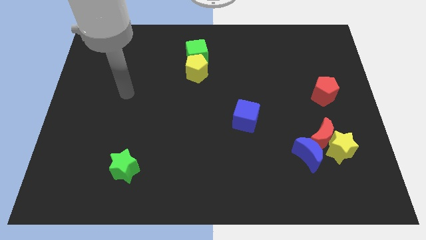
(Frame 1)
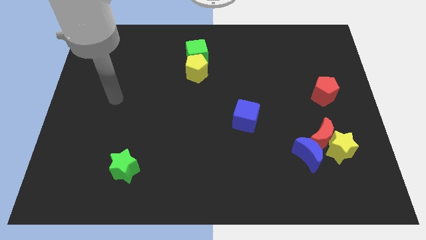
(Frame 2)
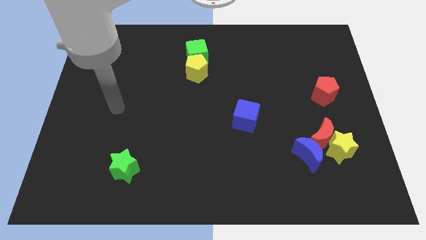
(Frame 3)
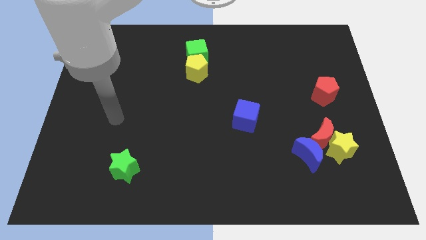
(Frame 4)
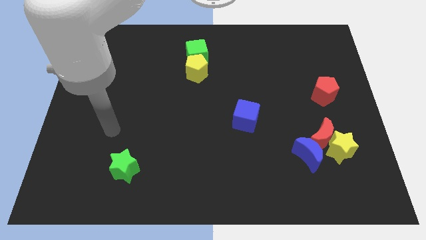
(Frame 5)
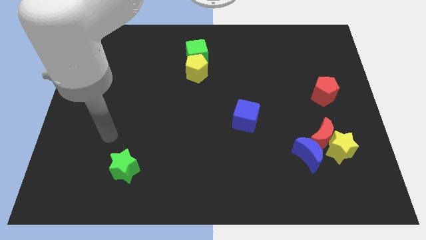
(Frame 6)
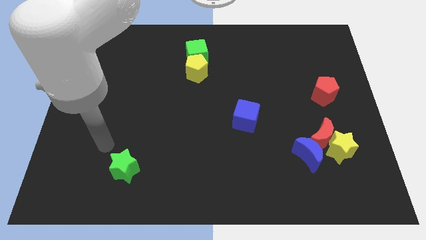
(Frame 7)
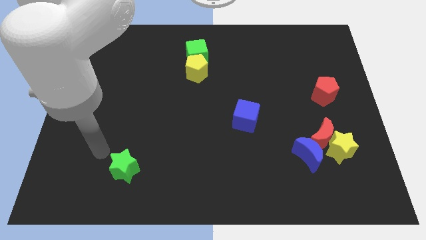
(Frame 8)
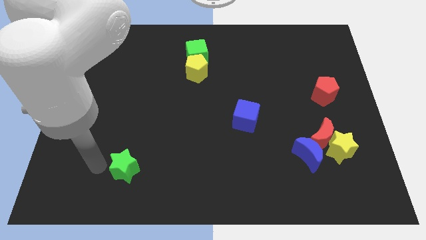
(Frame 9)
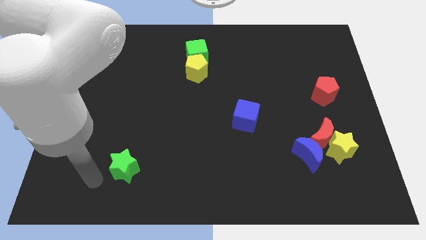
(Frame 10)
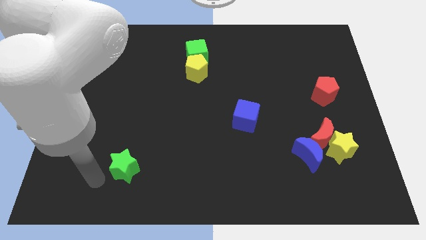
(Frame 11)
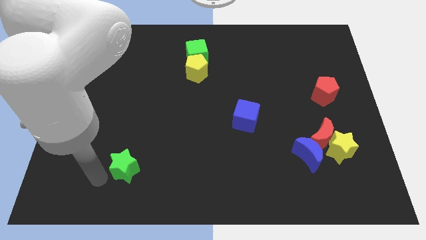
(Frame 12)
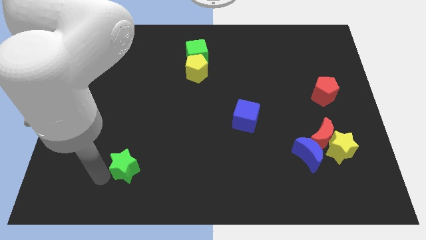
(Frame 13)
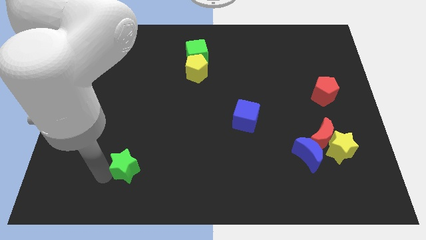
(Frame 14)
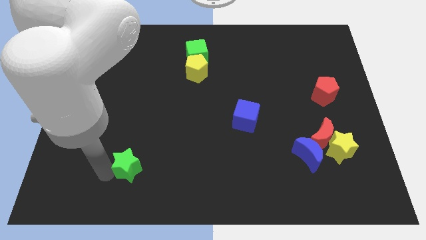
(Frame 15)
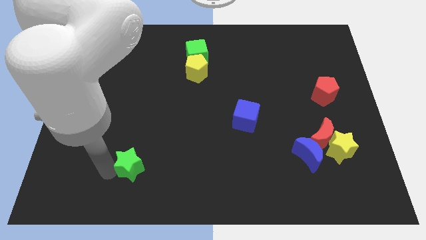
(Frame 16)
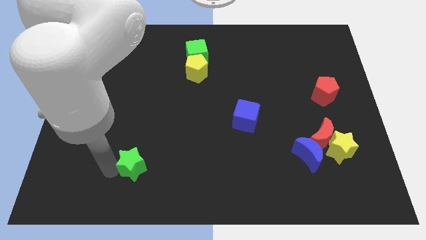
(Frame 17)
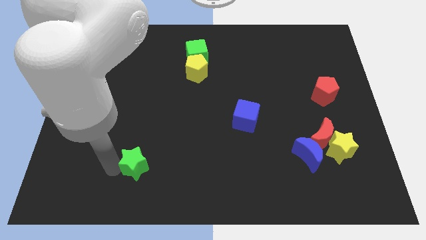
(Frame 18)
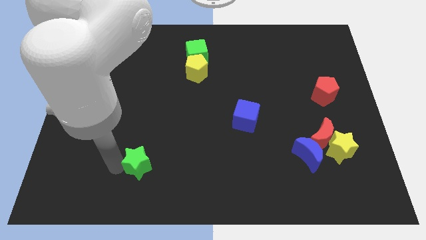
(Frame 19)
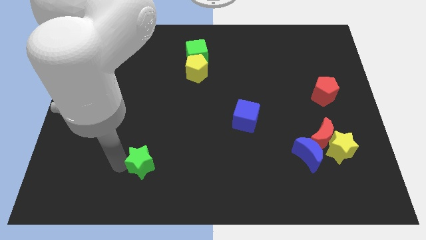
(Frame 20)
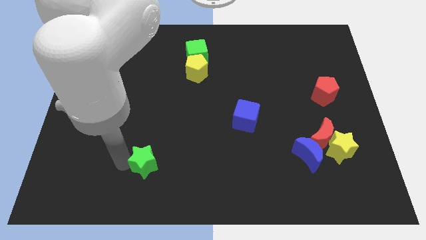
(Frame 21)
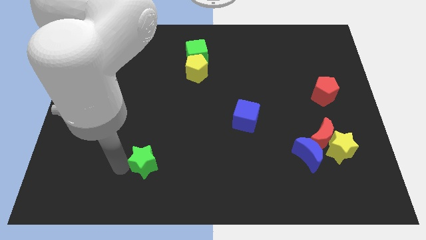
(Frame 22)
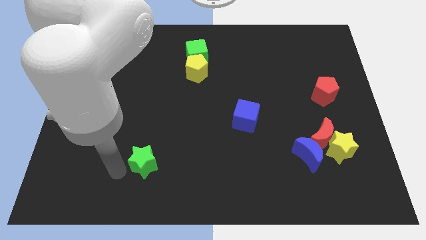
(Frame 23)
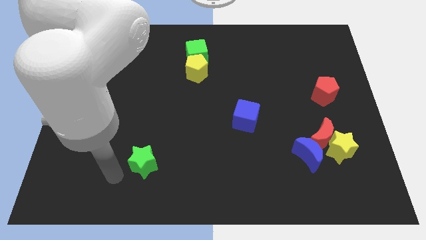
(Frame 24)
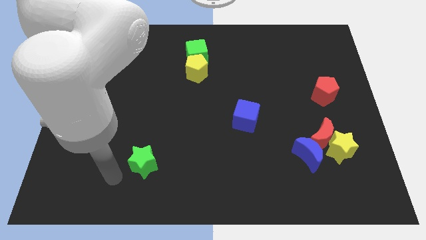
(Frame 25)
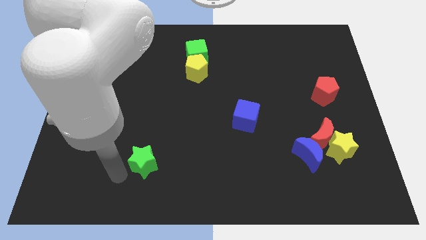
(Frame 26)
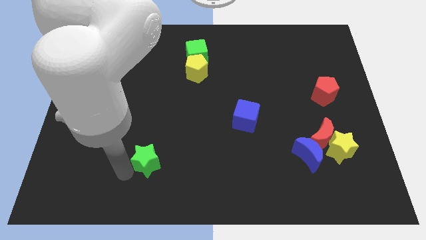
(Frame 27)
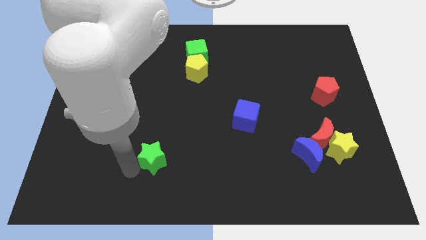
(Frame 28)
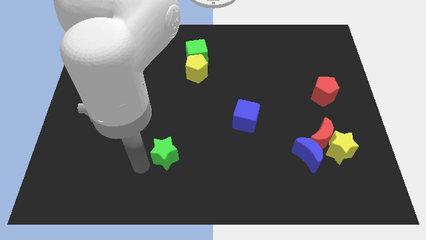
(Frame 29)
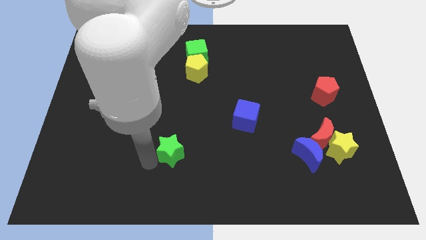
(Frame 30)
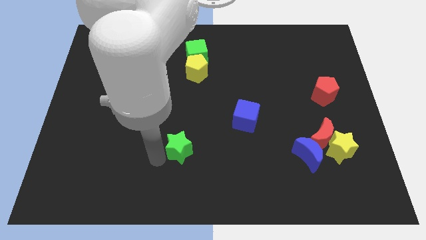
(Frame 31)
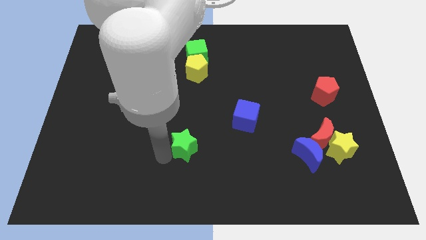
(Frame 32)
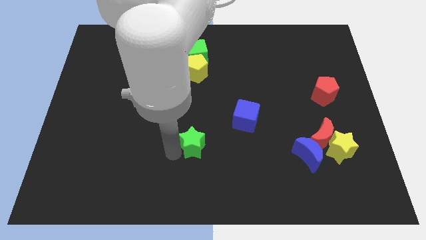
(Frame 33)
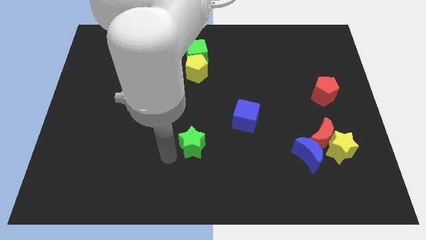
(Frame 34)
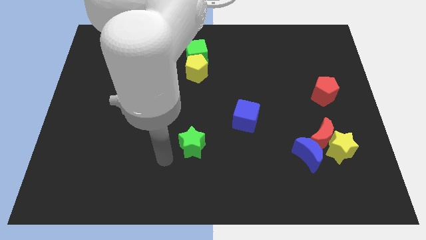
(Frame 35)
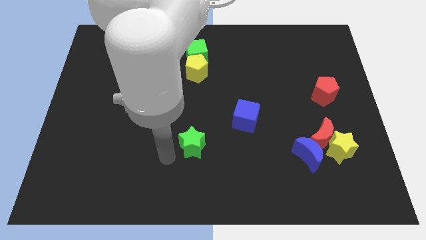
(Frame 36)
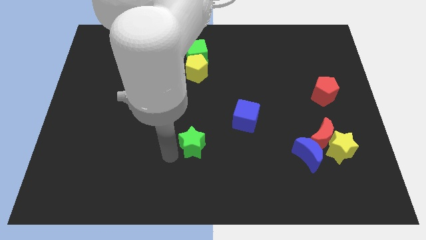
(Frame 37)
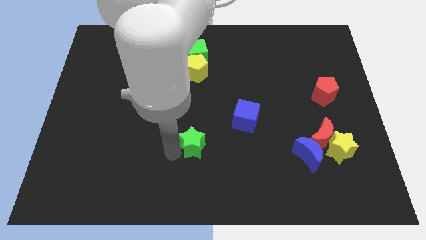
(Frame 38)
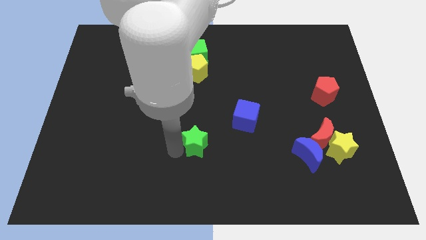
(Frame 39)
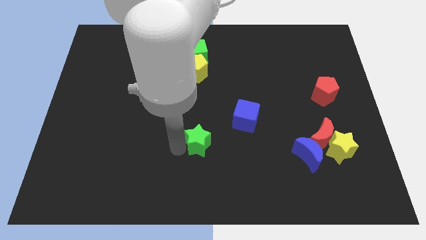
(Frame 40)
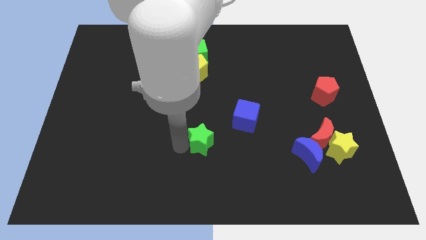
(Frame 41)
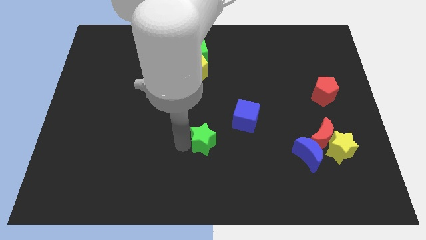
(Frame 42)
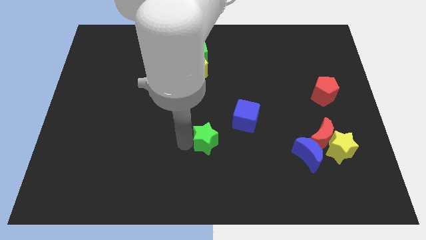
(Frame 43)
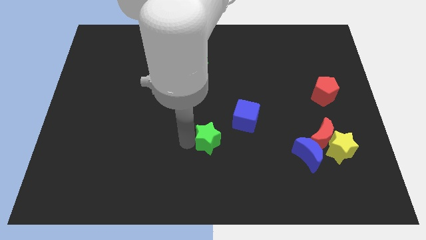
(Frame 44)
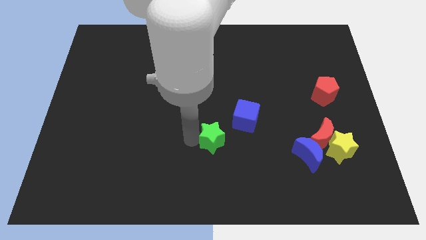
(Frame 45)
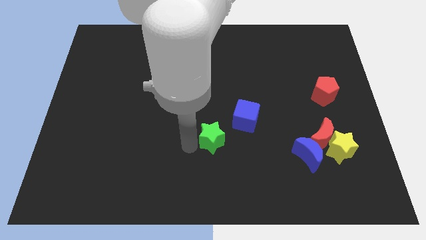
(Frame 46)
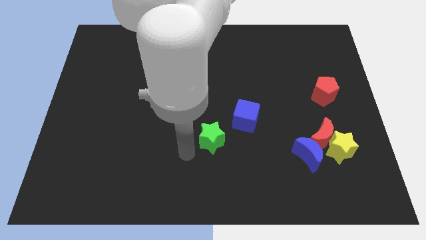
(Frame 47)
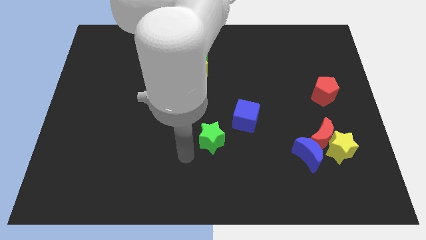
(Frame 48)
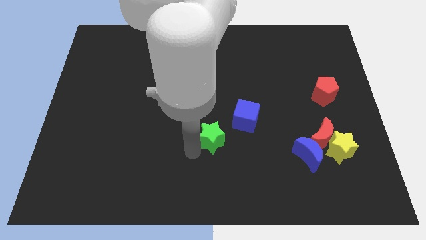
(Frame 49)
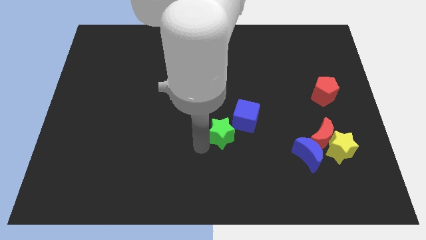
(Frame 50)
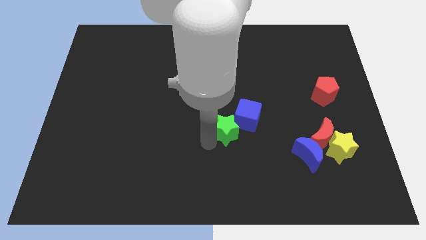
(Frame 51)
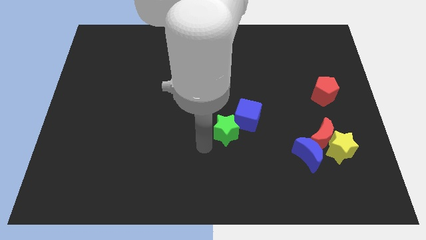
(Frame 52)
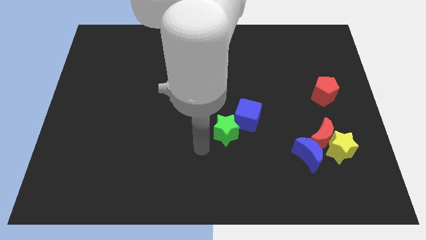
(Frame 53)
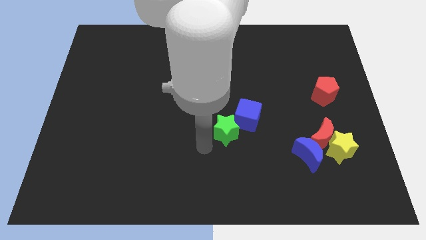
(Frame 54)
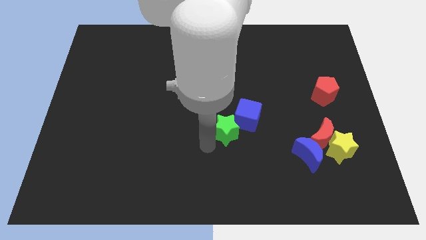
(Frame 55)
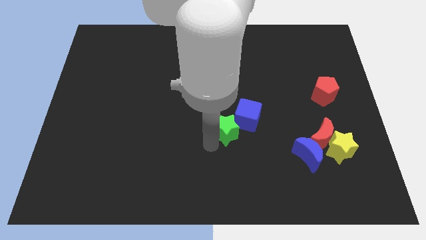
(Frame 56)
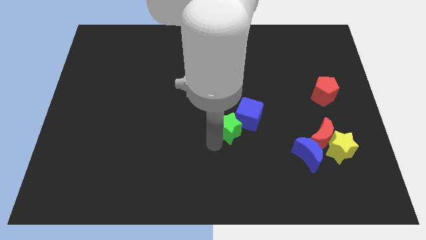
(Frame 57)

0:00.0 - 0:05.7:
put the green star close to the blue cube

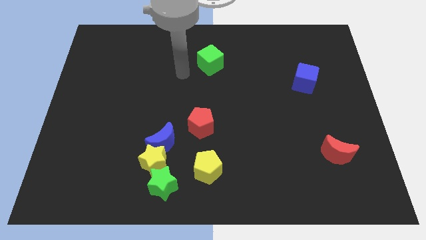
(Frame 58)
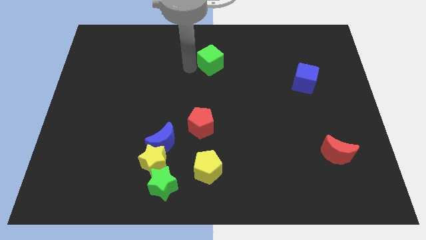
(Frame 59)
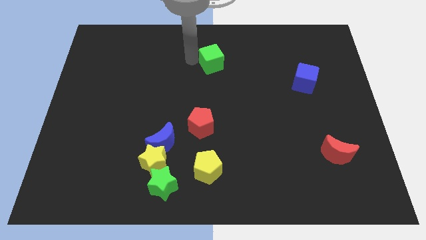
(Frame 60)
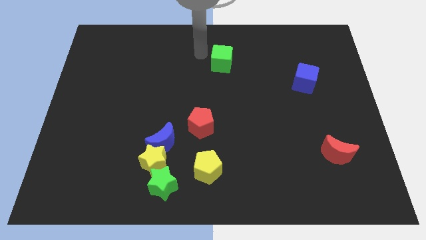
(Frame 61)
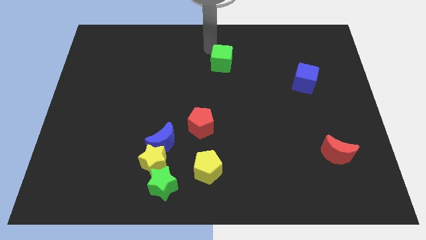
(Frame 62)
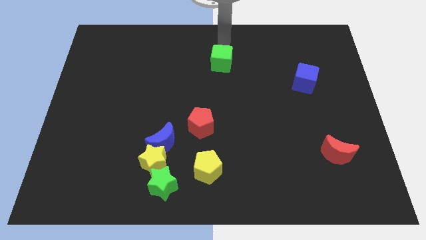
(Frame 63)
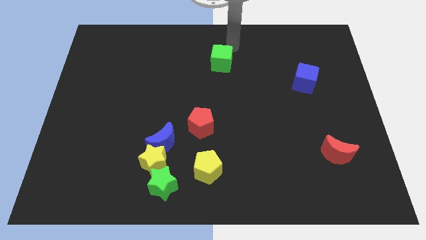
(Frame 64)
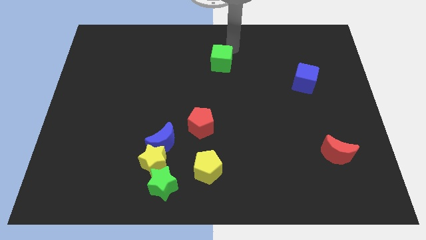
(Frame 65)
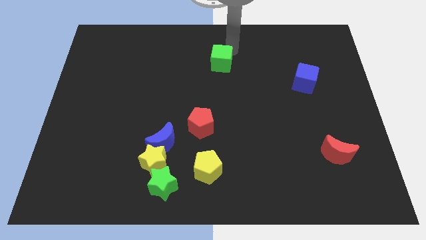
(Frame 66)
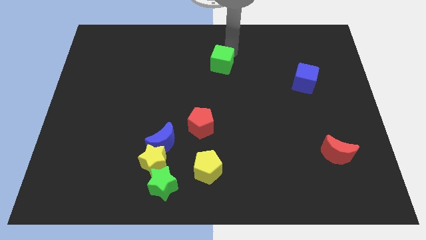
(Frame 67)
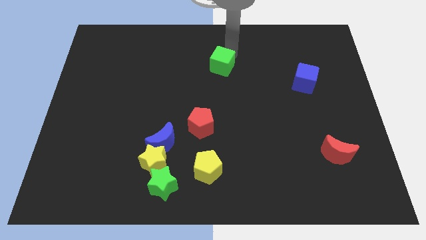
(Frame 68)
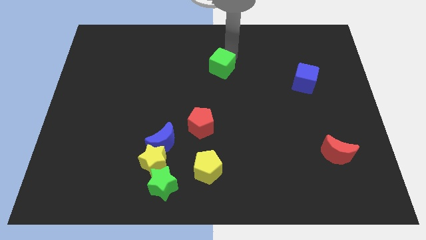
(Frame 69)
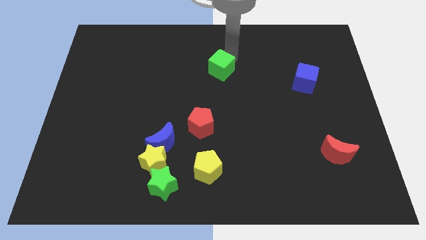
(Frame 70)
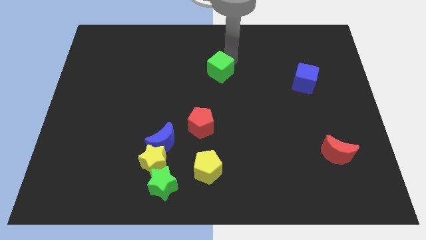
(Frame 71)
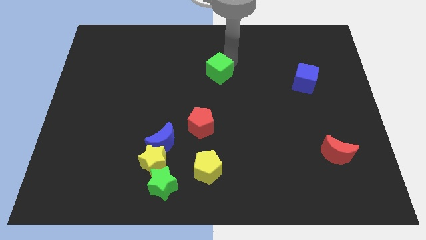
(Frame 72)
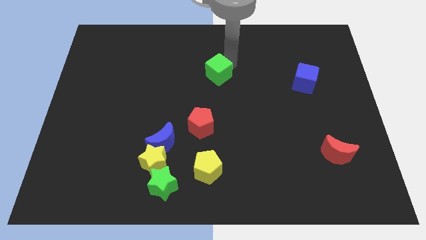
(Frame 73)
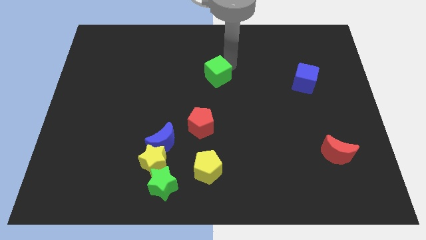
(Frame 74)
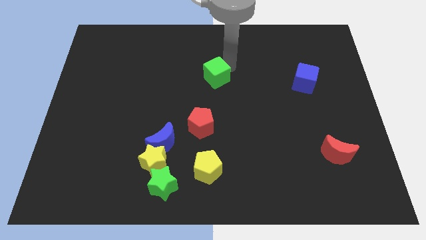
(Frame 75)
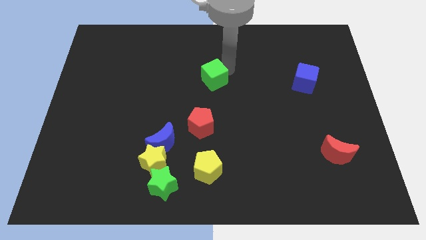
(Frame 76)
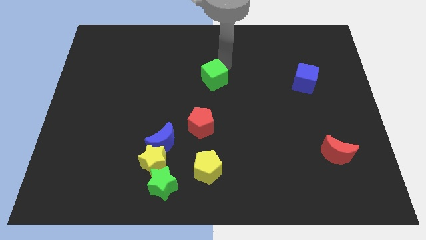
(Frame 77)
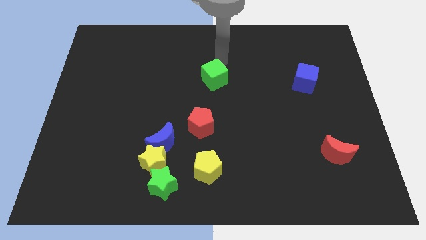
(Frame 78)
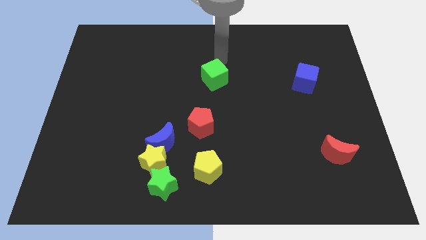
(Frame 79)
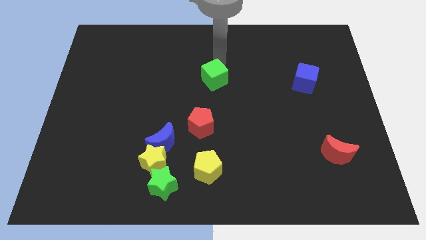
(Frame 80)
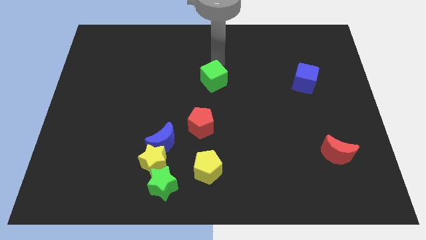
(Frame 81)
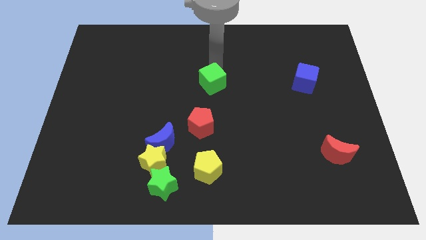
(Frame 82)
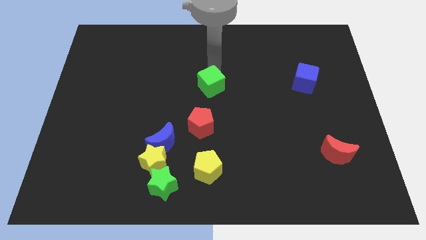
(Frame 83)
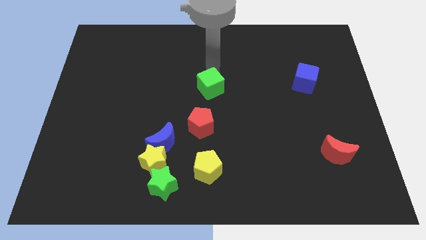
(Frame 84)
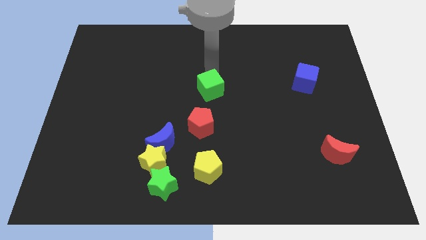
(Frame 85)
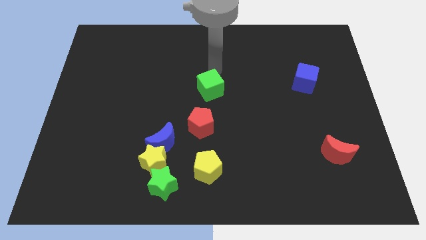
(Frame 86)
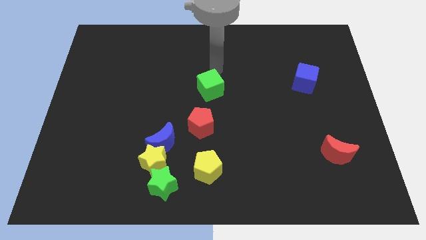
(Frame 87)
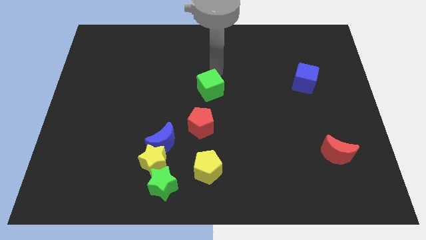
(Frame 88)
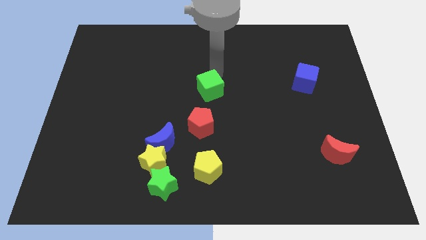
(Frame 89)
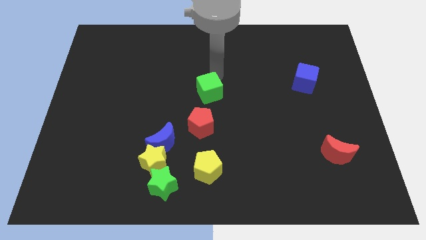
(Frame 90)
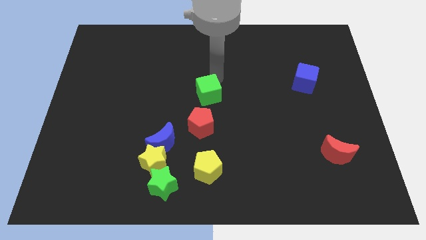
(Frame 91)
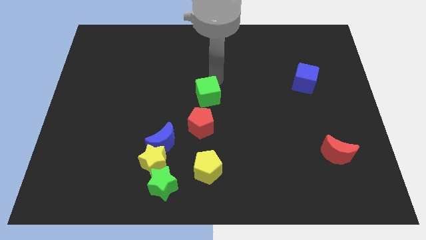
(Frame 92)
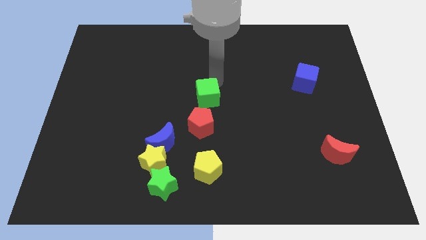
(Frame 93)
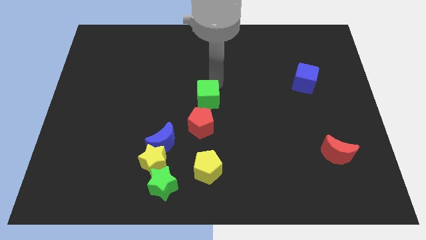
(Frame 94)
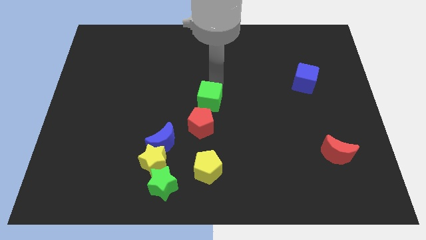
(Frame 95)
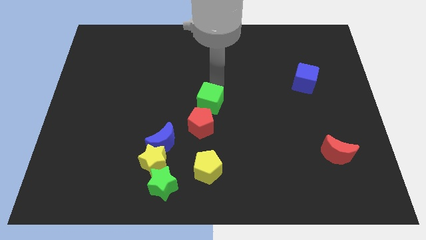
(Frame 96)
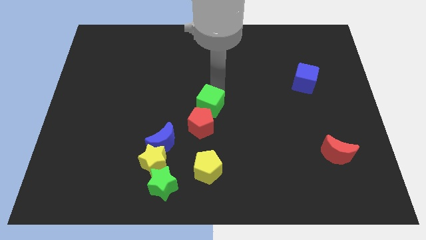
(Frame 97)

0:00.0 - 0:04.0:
push the green cube next to the red pentagon
